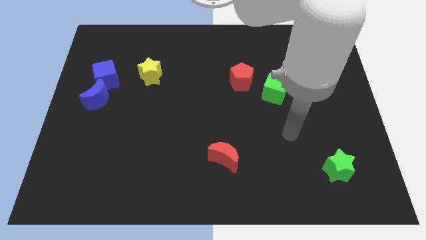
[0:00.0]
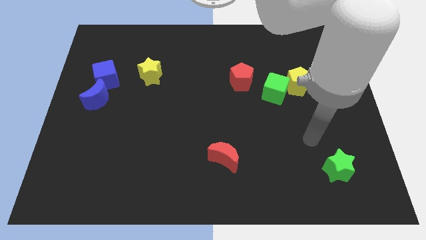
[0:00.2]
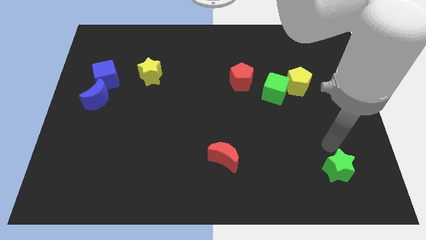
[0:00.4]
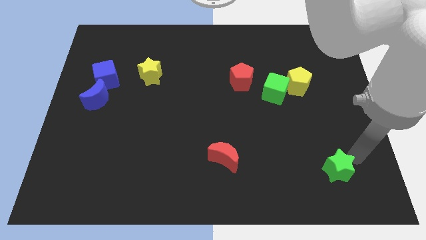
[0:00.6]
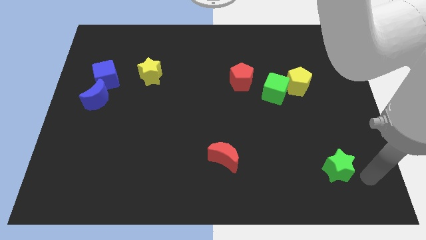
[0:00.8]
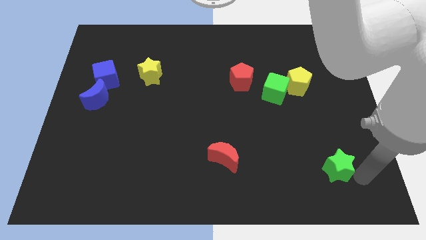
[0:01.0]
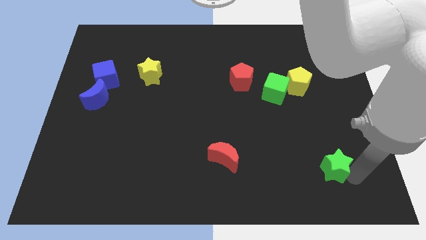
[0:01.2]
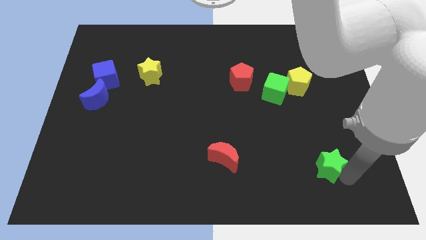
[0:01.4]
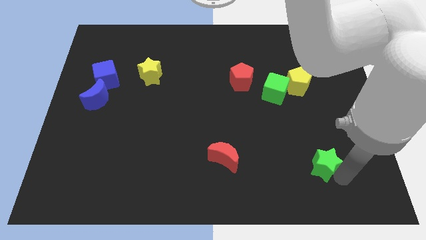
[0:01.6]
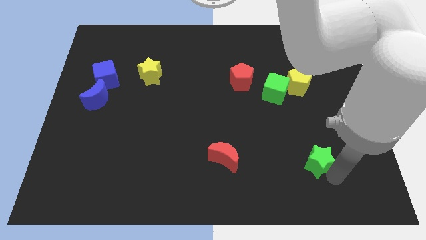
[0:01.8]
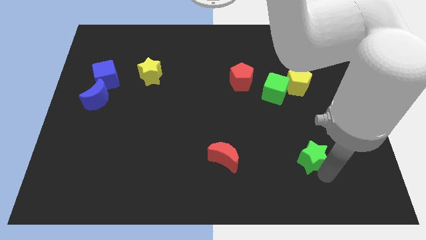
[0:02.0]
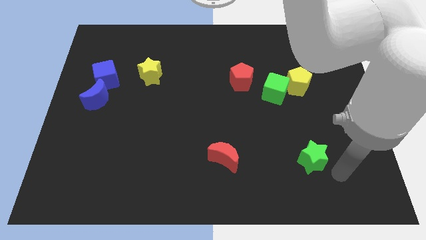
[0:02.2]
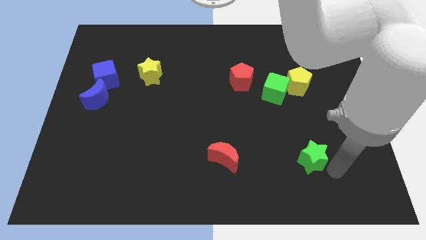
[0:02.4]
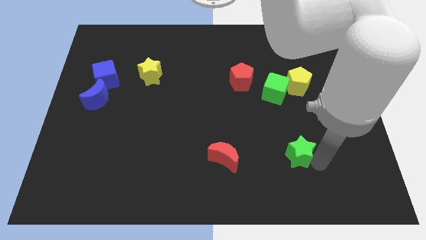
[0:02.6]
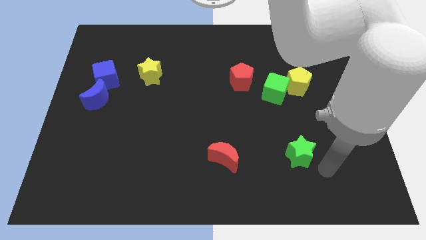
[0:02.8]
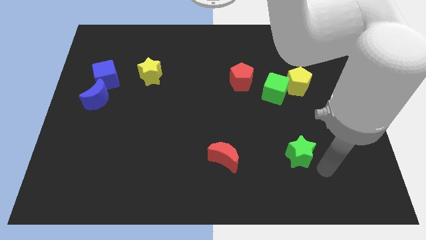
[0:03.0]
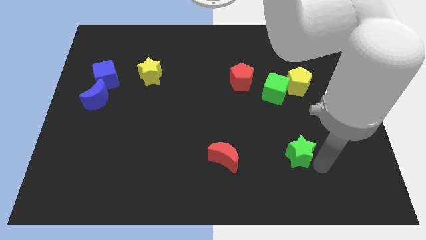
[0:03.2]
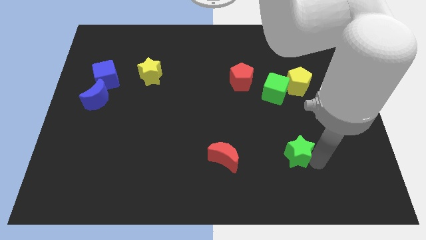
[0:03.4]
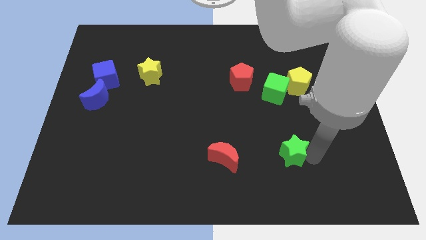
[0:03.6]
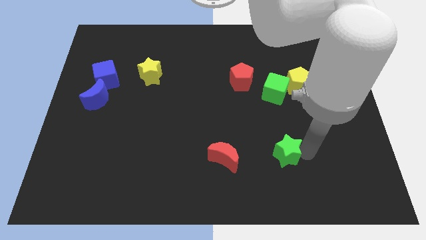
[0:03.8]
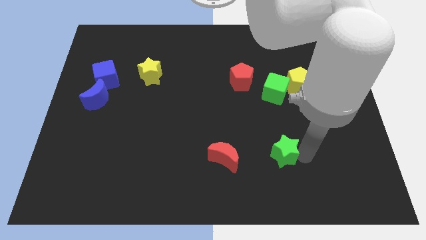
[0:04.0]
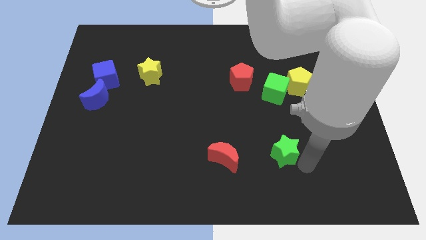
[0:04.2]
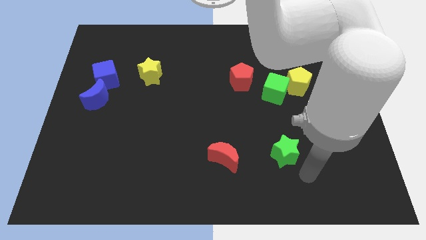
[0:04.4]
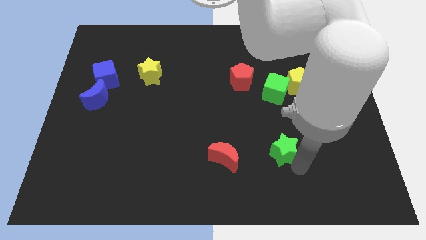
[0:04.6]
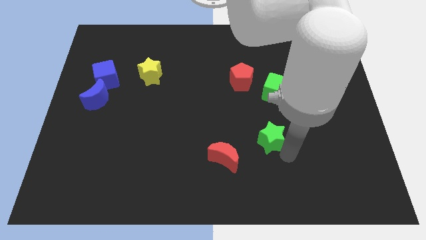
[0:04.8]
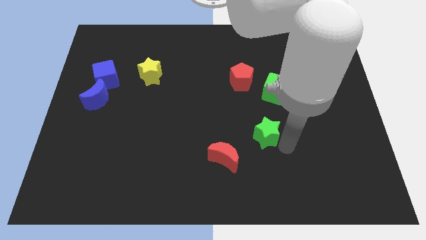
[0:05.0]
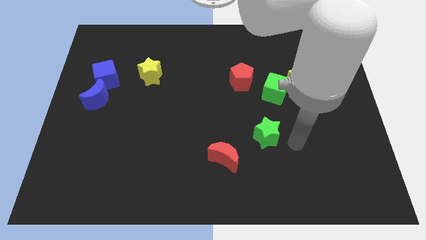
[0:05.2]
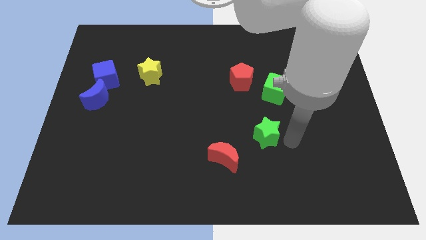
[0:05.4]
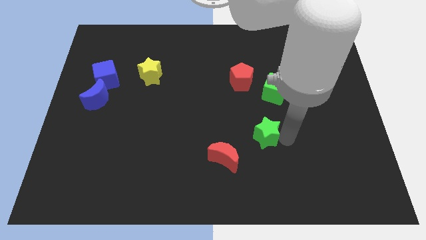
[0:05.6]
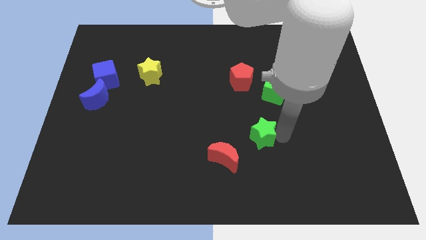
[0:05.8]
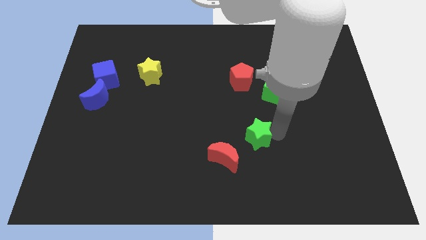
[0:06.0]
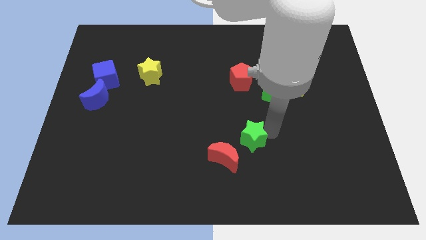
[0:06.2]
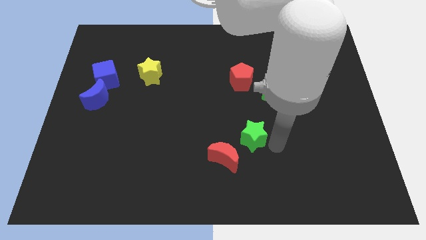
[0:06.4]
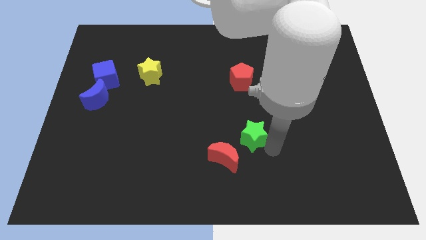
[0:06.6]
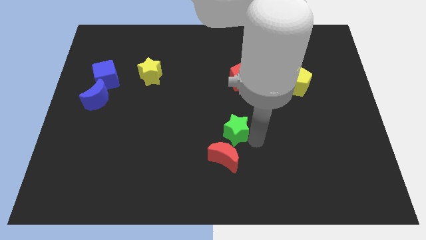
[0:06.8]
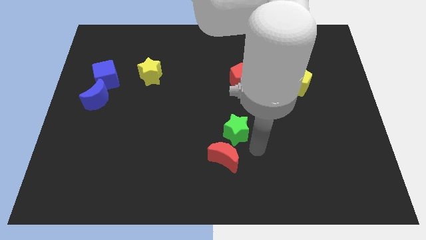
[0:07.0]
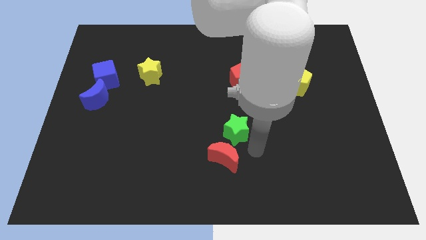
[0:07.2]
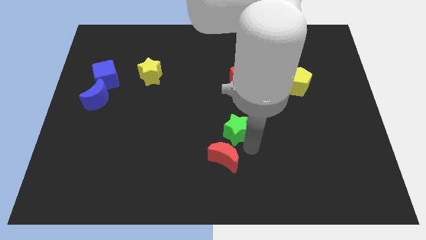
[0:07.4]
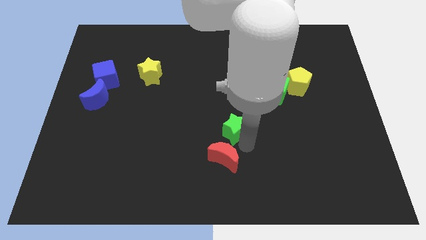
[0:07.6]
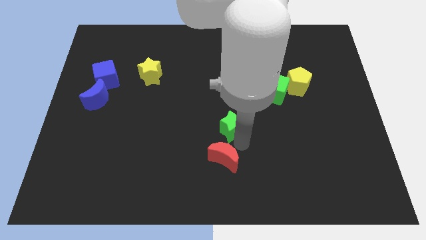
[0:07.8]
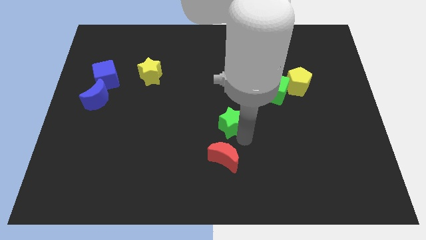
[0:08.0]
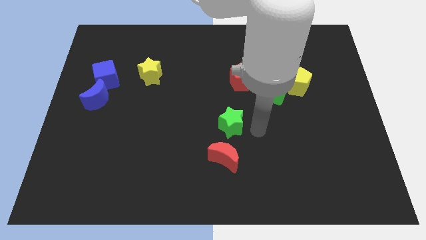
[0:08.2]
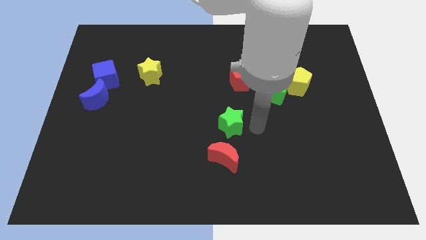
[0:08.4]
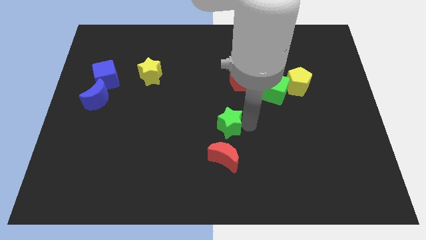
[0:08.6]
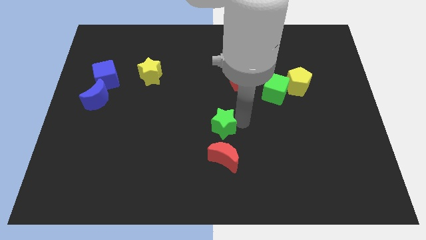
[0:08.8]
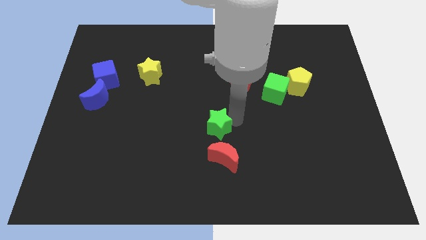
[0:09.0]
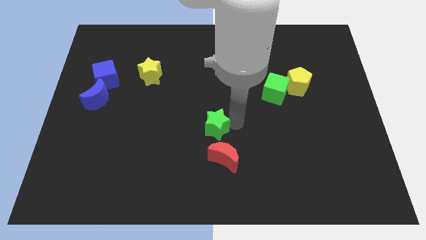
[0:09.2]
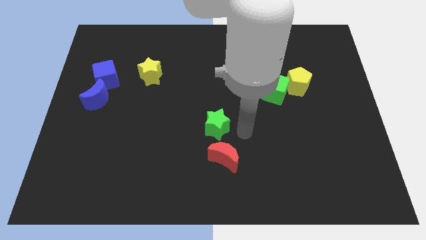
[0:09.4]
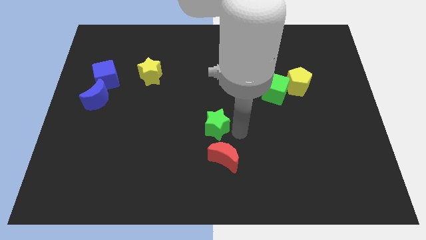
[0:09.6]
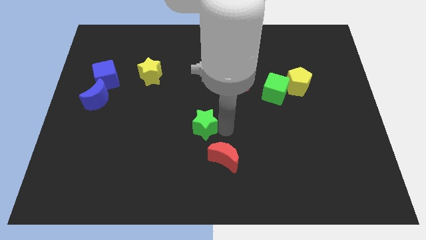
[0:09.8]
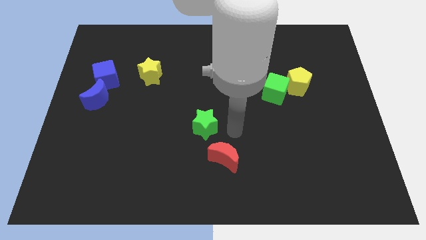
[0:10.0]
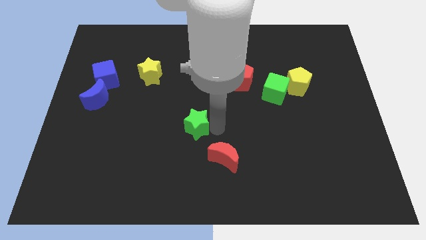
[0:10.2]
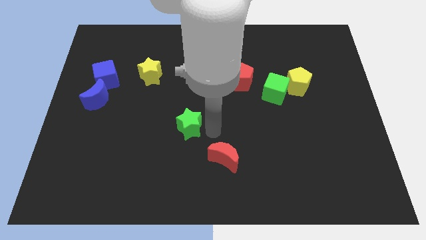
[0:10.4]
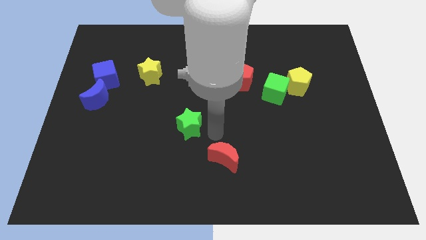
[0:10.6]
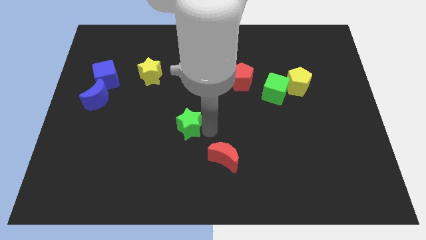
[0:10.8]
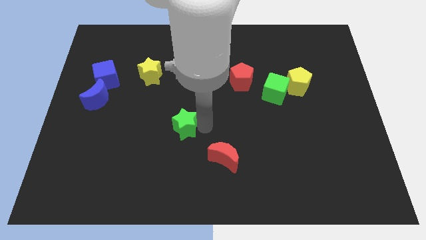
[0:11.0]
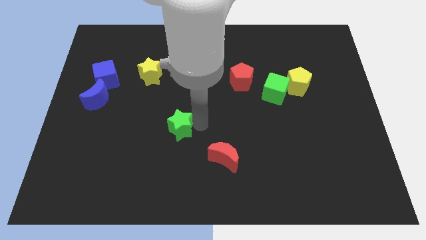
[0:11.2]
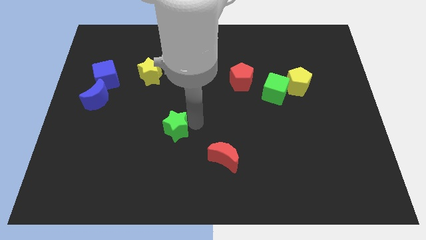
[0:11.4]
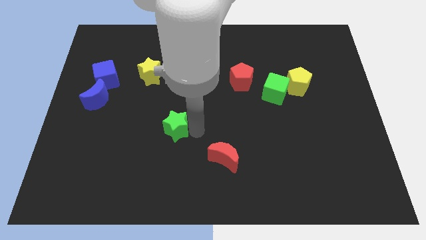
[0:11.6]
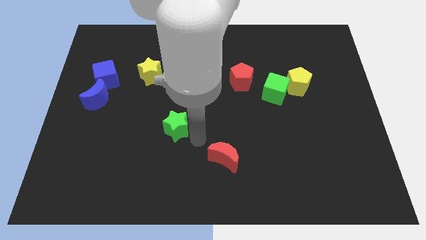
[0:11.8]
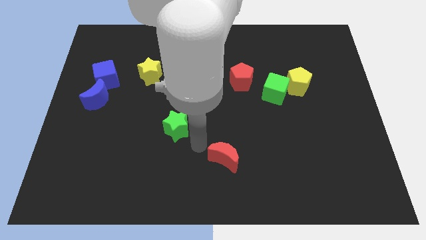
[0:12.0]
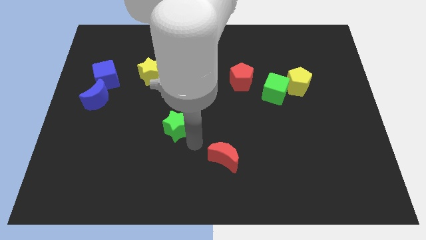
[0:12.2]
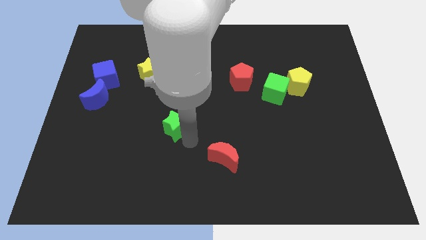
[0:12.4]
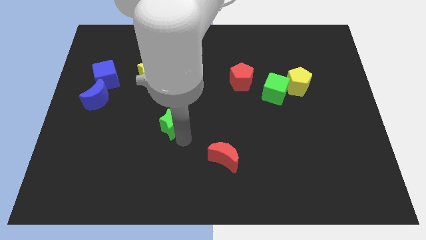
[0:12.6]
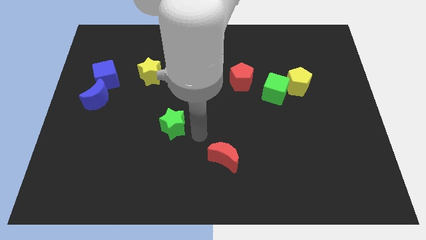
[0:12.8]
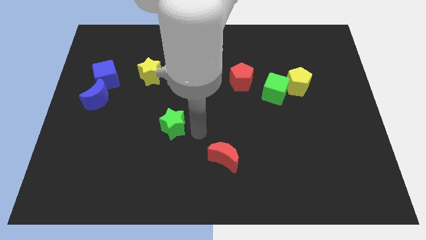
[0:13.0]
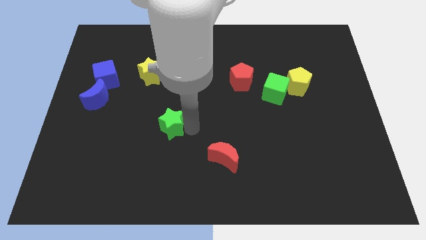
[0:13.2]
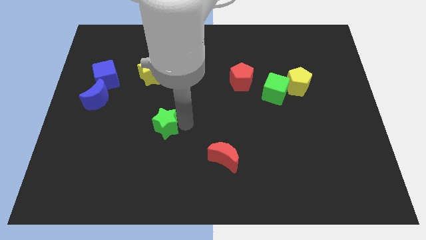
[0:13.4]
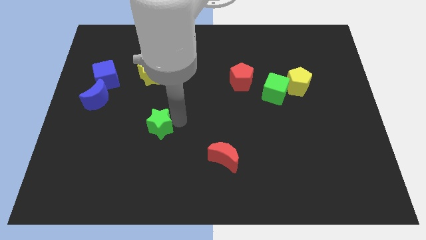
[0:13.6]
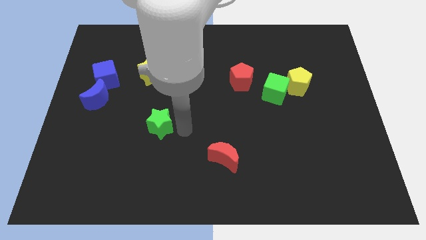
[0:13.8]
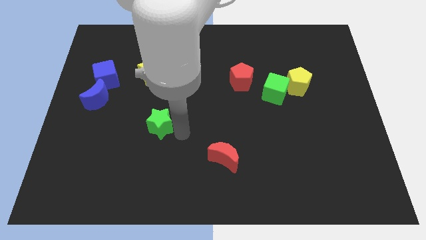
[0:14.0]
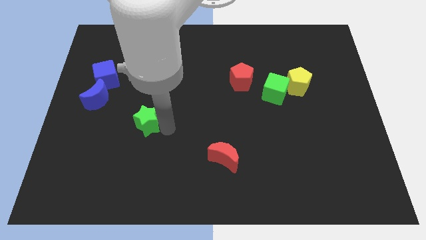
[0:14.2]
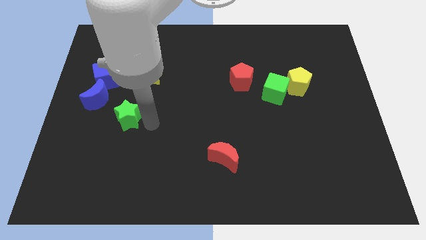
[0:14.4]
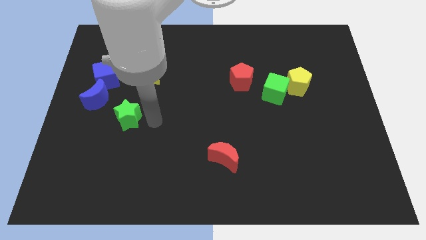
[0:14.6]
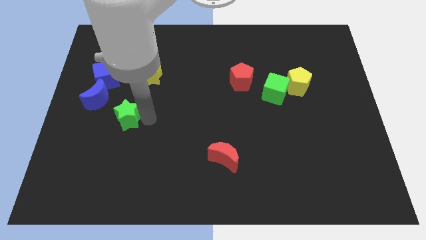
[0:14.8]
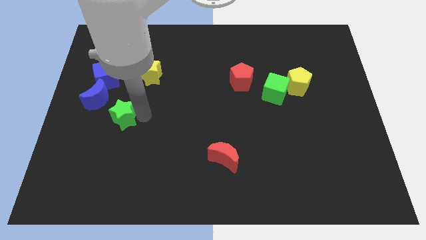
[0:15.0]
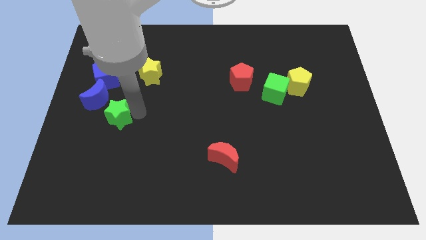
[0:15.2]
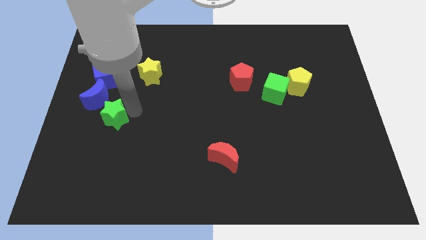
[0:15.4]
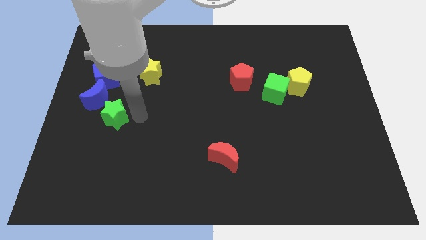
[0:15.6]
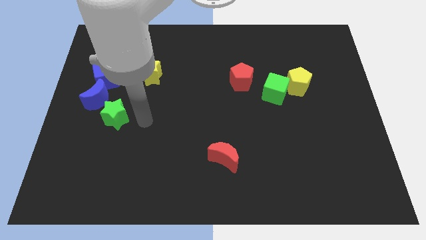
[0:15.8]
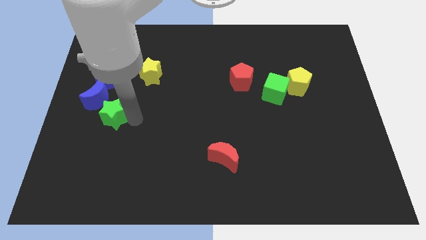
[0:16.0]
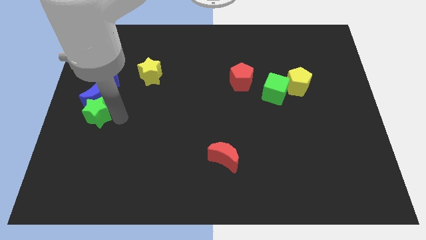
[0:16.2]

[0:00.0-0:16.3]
push the green star to the center left
